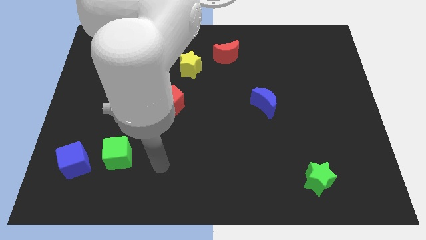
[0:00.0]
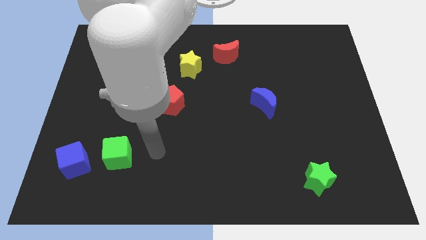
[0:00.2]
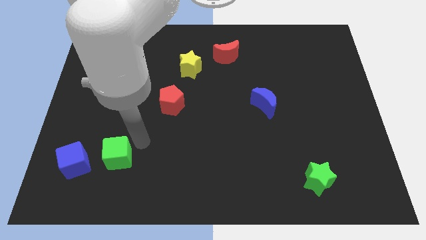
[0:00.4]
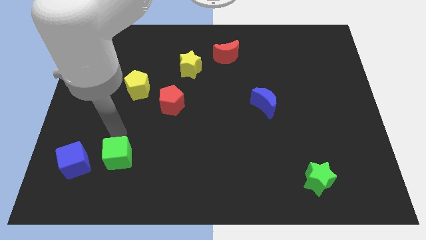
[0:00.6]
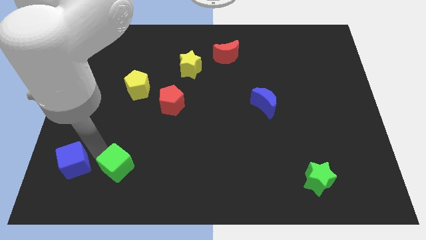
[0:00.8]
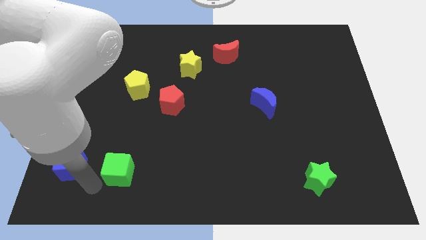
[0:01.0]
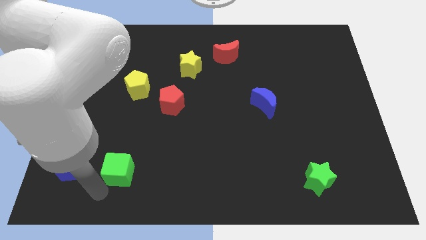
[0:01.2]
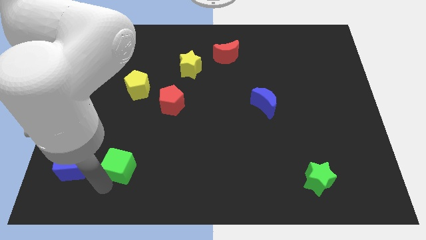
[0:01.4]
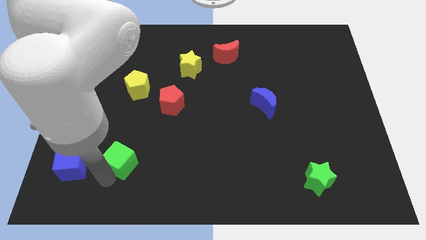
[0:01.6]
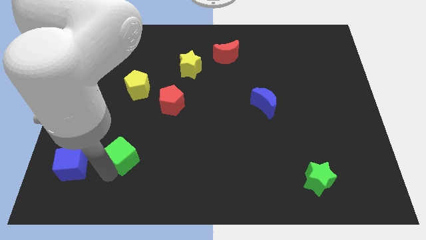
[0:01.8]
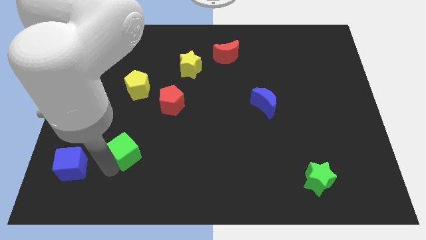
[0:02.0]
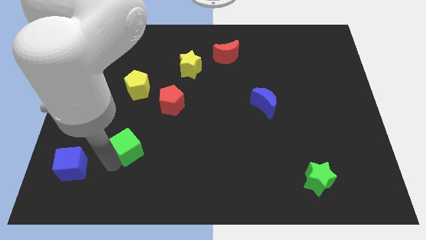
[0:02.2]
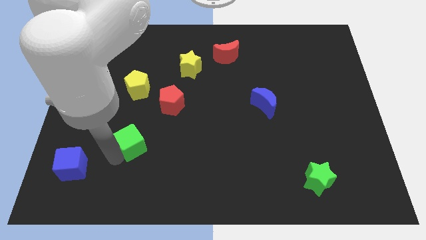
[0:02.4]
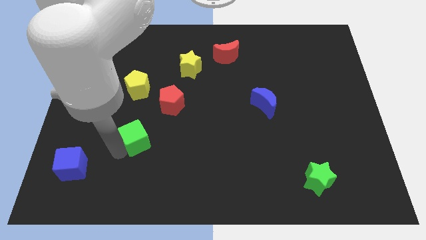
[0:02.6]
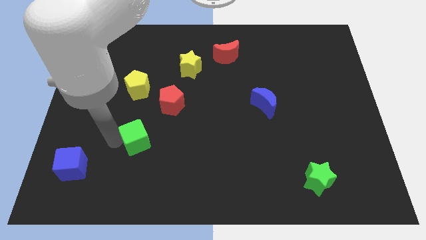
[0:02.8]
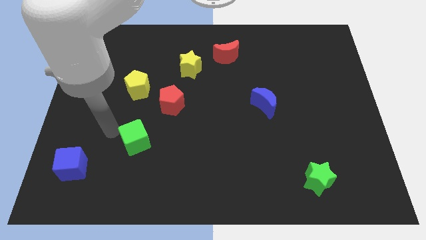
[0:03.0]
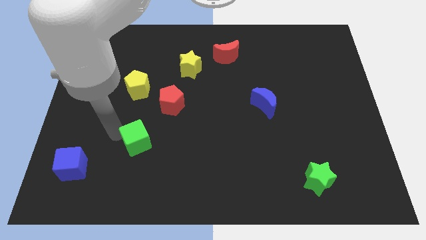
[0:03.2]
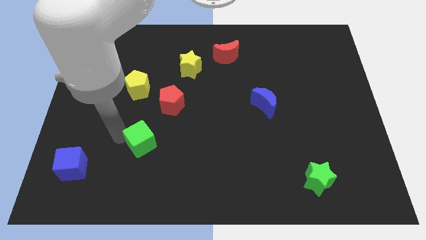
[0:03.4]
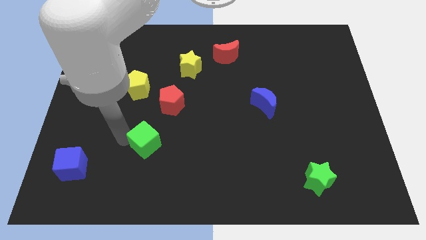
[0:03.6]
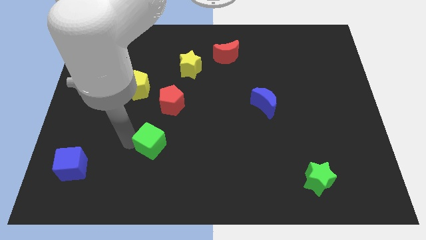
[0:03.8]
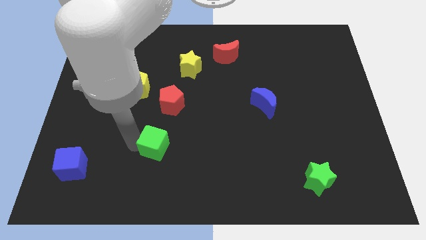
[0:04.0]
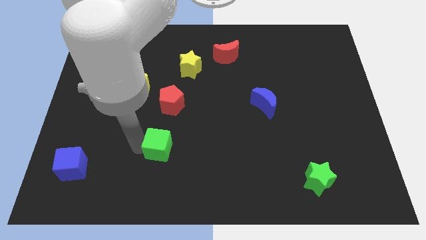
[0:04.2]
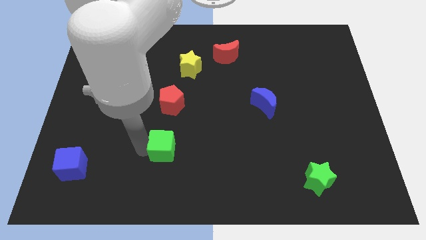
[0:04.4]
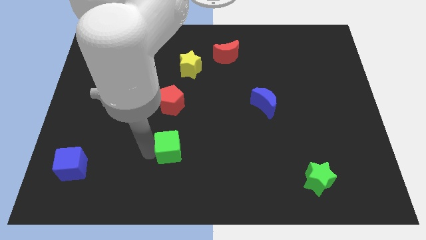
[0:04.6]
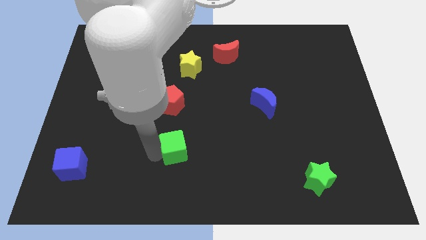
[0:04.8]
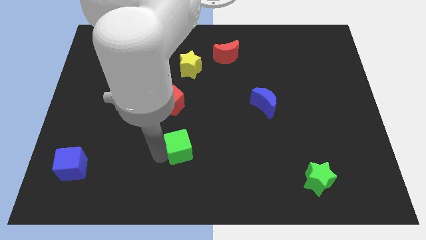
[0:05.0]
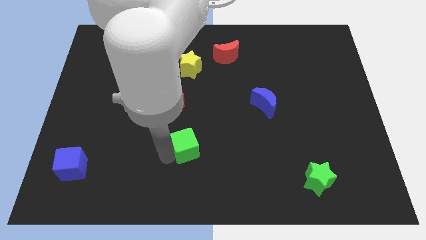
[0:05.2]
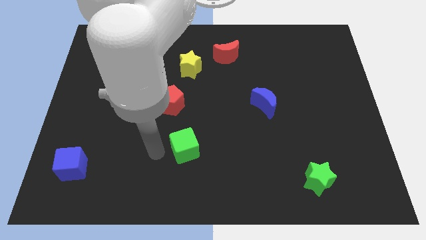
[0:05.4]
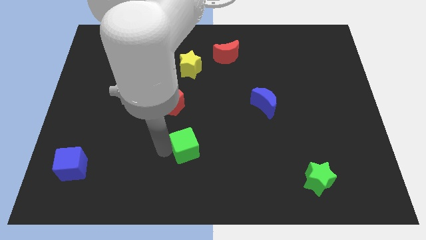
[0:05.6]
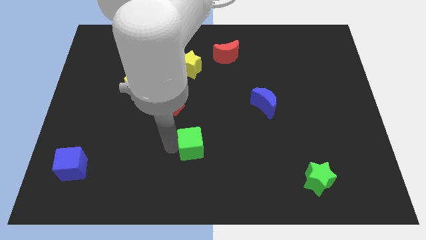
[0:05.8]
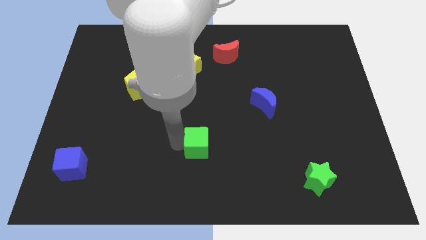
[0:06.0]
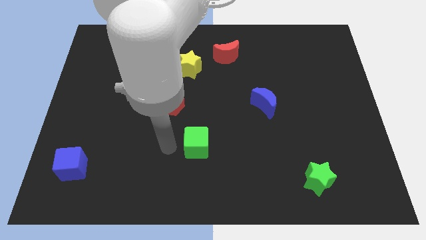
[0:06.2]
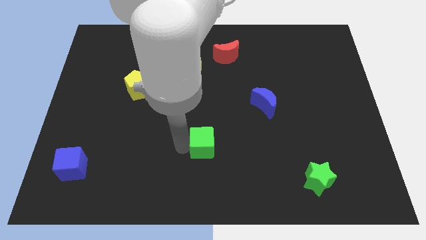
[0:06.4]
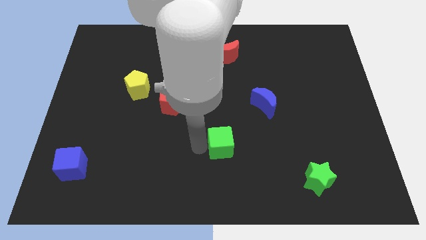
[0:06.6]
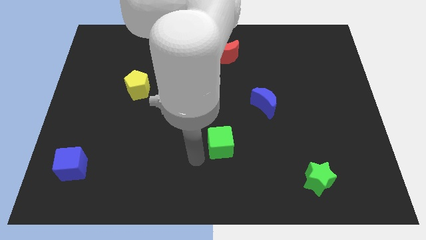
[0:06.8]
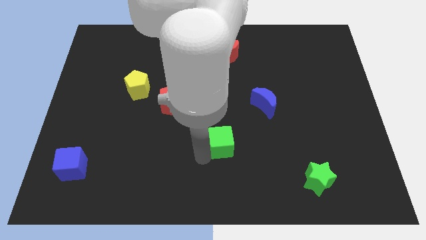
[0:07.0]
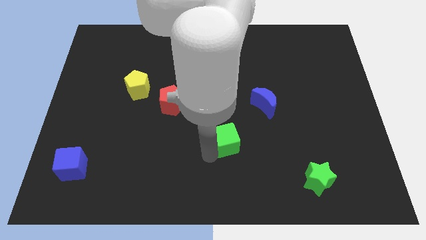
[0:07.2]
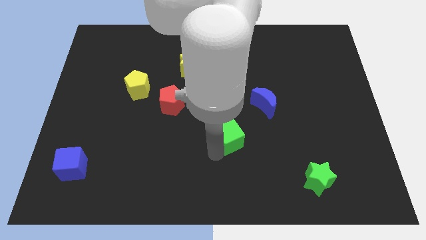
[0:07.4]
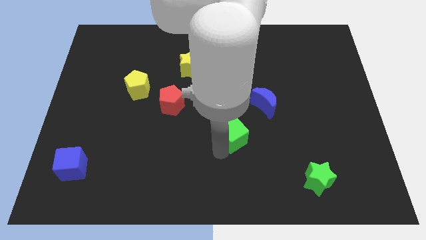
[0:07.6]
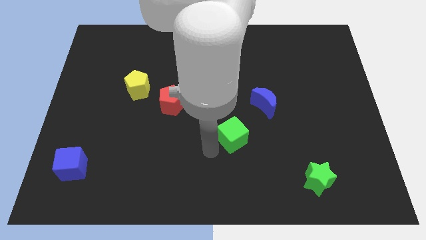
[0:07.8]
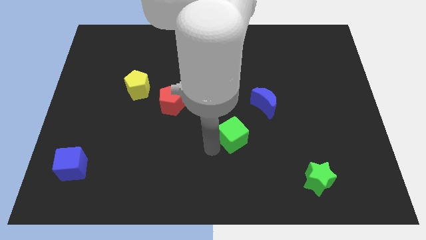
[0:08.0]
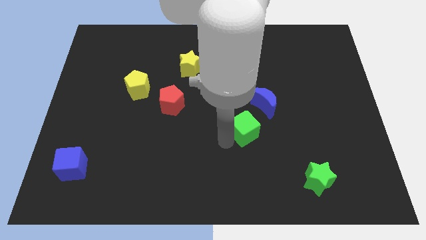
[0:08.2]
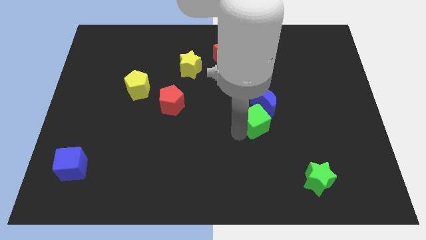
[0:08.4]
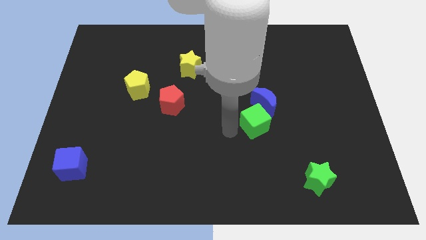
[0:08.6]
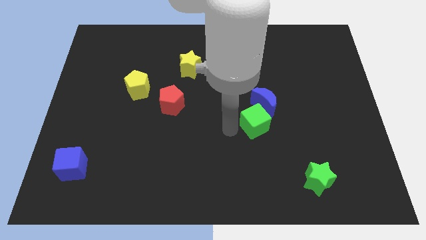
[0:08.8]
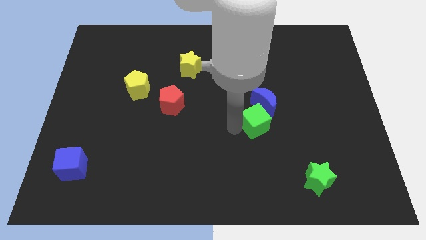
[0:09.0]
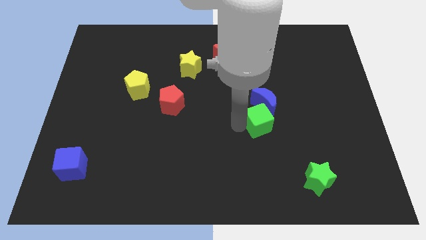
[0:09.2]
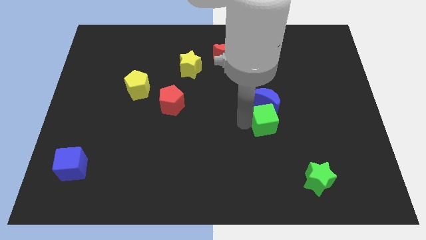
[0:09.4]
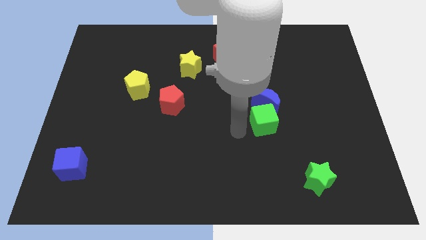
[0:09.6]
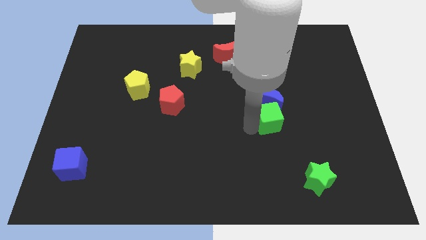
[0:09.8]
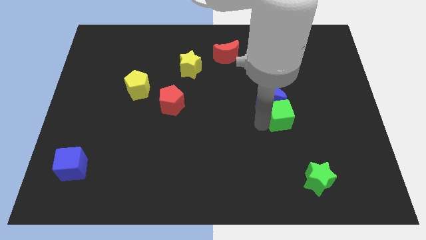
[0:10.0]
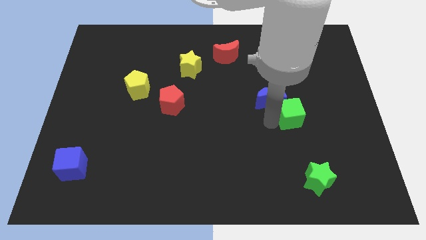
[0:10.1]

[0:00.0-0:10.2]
slide the green cube to the right side of the blue moon

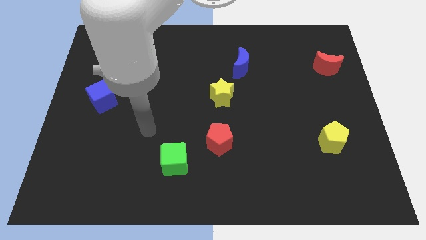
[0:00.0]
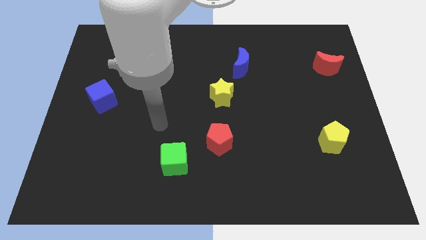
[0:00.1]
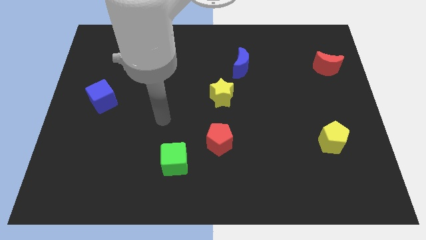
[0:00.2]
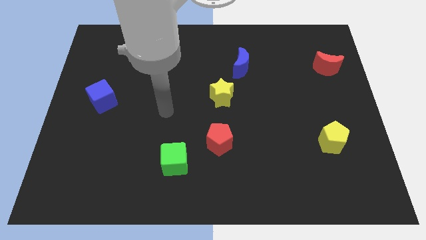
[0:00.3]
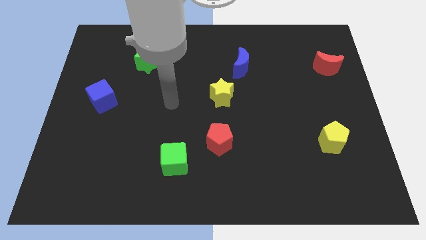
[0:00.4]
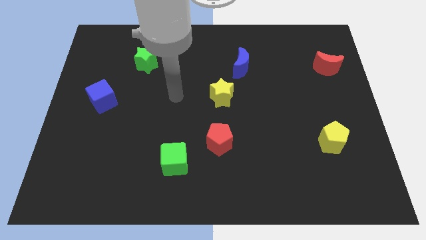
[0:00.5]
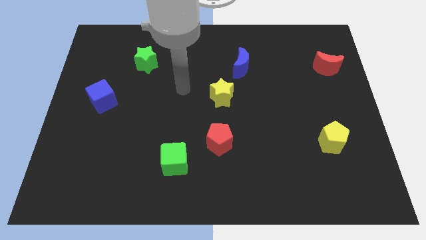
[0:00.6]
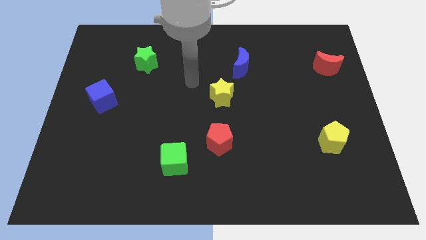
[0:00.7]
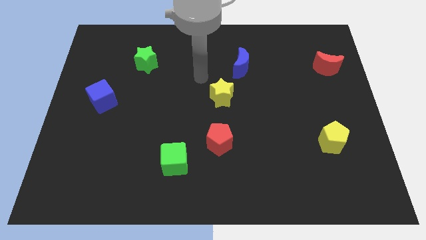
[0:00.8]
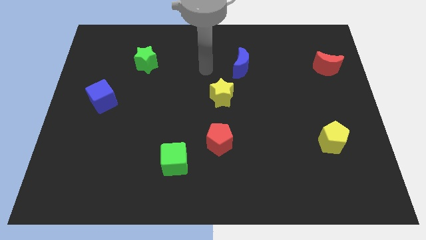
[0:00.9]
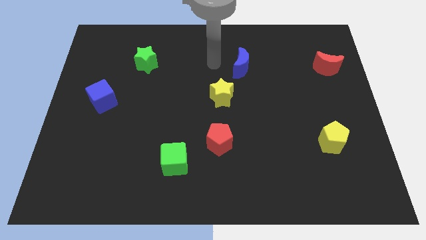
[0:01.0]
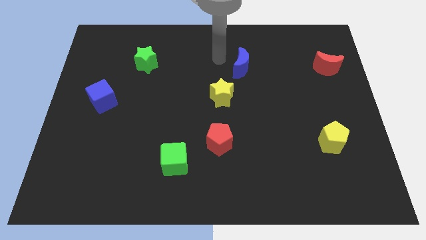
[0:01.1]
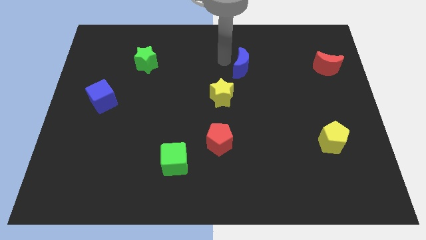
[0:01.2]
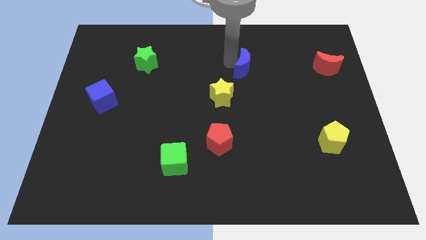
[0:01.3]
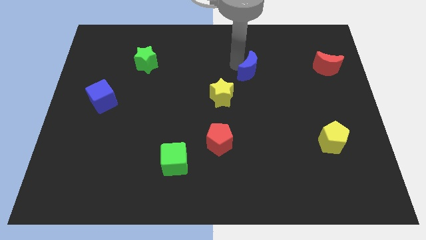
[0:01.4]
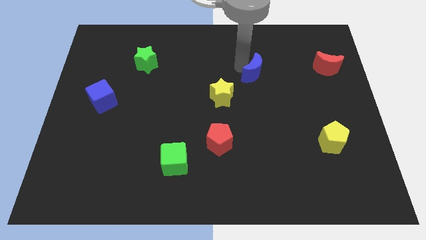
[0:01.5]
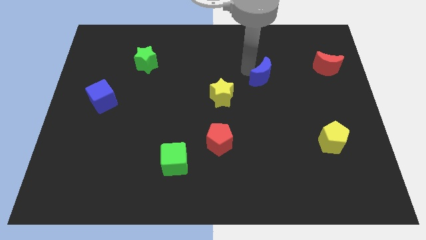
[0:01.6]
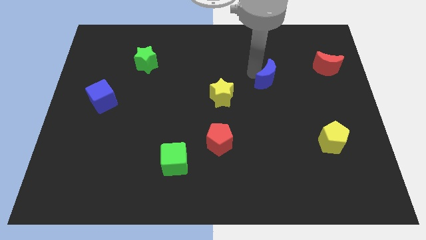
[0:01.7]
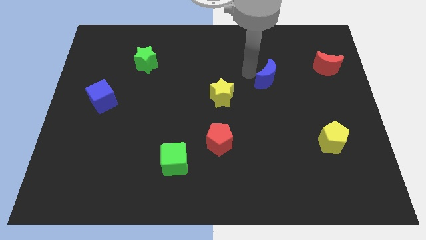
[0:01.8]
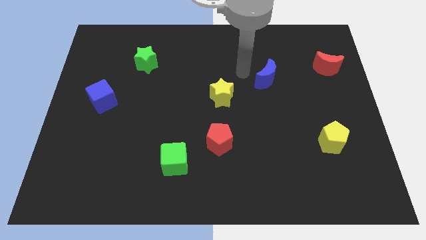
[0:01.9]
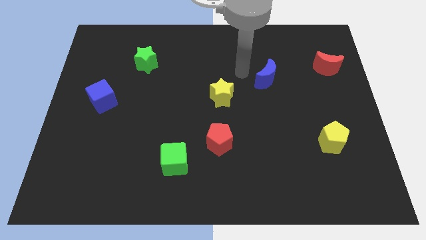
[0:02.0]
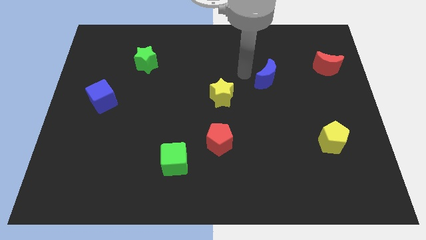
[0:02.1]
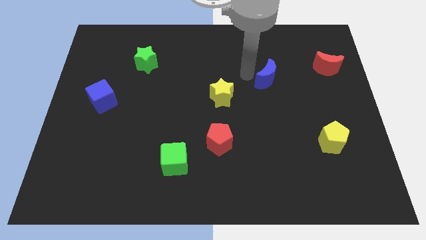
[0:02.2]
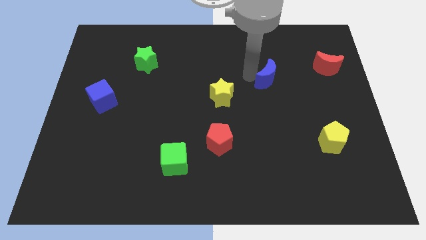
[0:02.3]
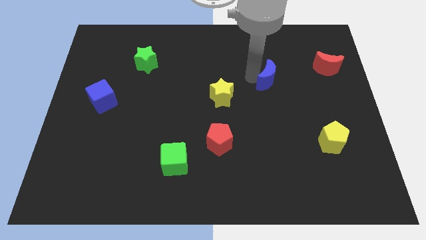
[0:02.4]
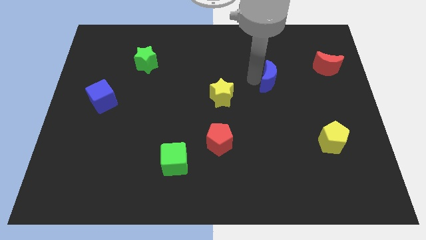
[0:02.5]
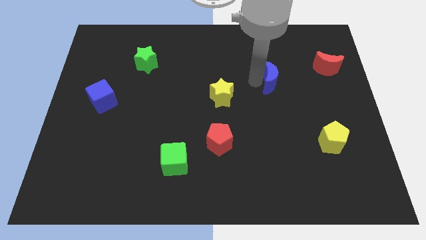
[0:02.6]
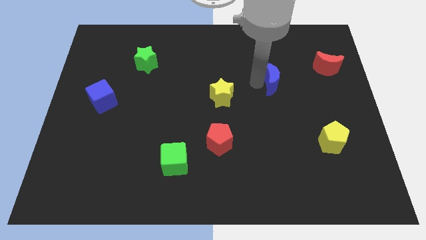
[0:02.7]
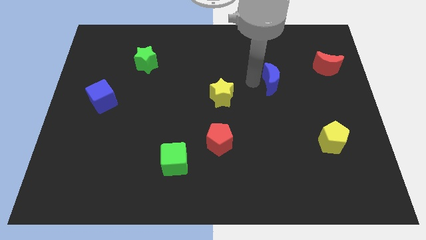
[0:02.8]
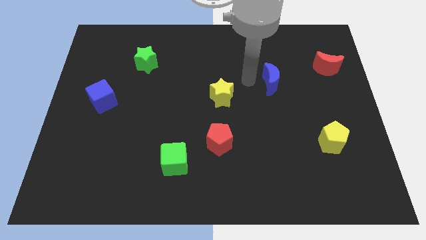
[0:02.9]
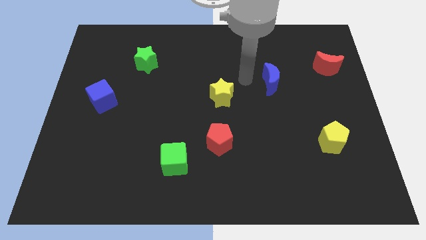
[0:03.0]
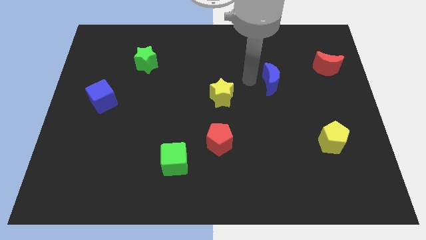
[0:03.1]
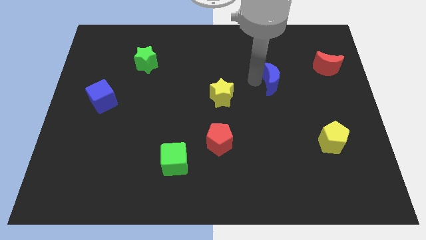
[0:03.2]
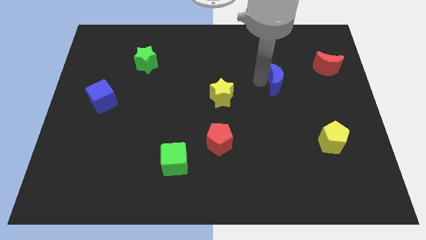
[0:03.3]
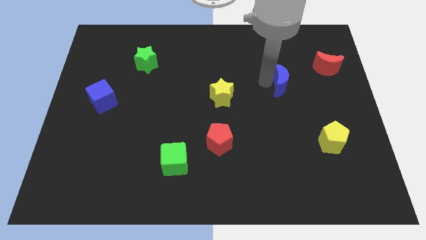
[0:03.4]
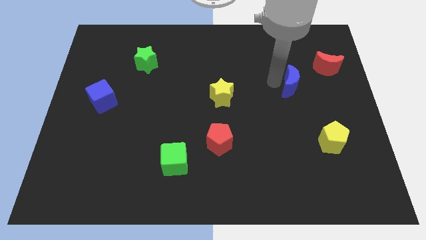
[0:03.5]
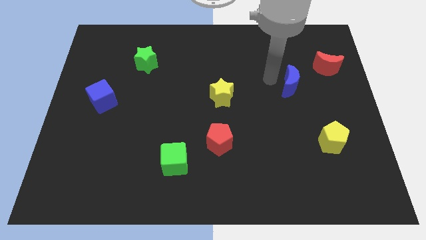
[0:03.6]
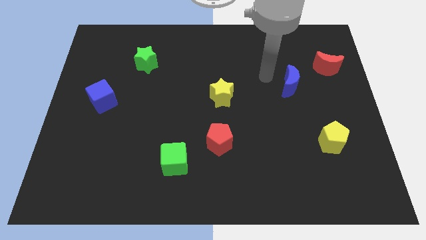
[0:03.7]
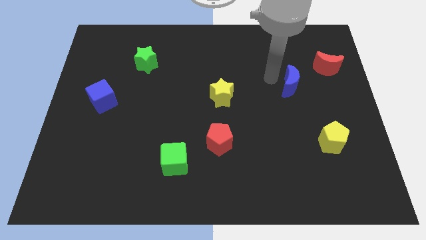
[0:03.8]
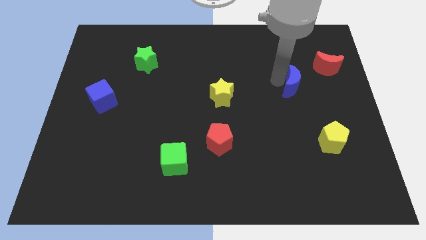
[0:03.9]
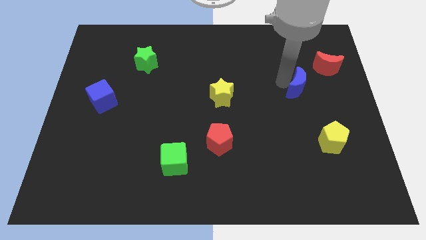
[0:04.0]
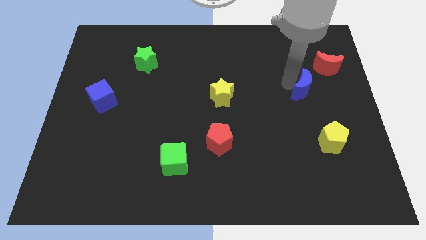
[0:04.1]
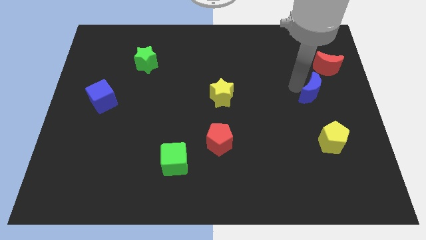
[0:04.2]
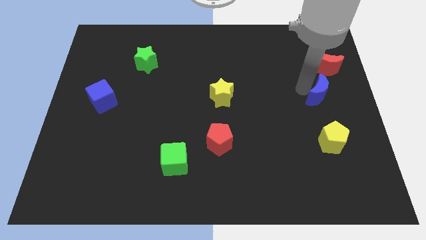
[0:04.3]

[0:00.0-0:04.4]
slide the blue moon below the red moon
